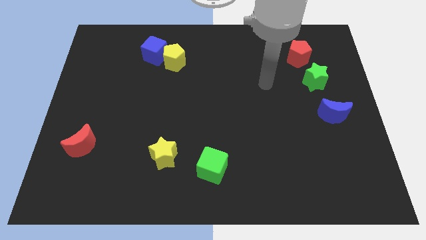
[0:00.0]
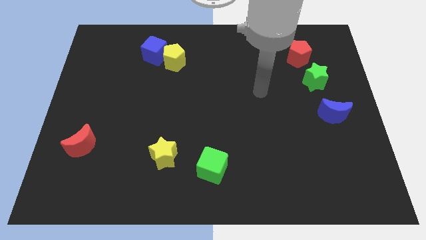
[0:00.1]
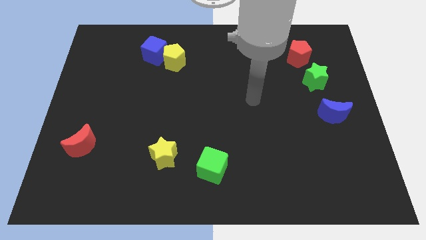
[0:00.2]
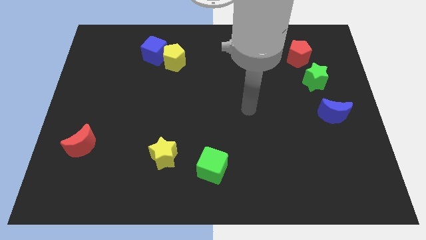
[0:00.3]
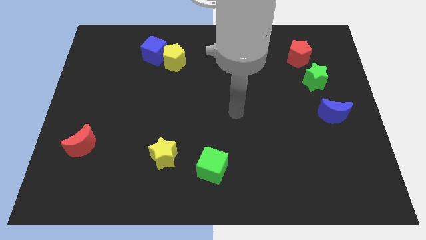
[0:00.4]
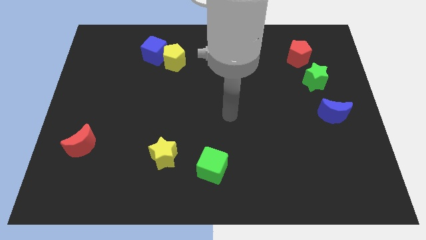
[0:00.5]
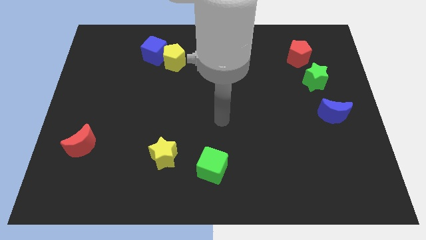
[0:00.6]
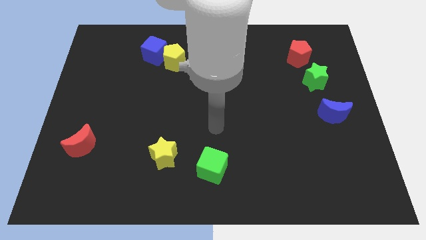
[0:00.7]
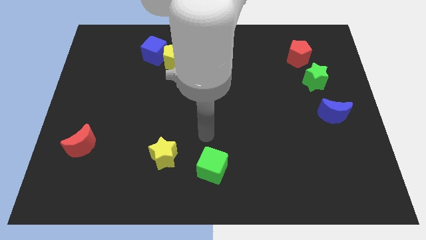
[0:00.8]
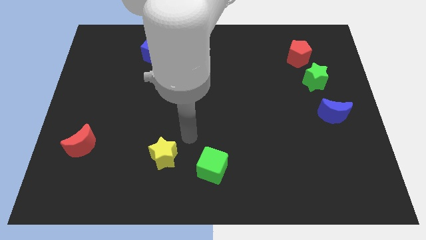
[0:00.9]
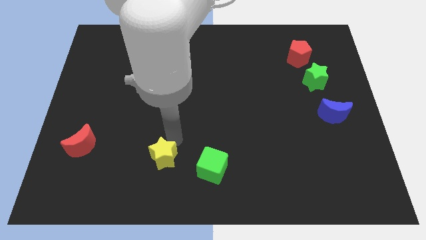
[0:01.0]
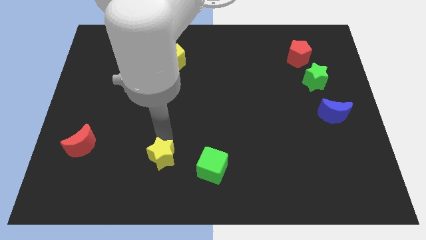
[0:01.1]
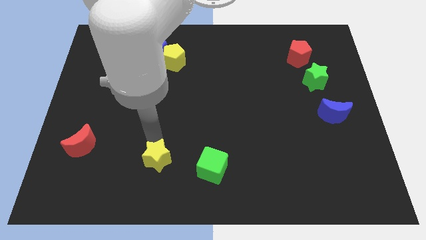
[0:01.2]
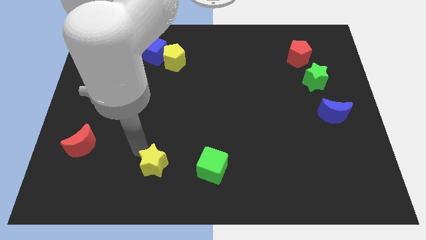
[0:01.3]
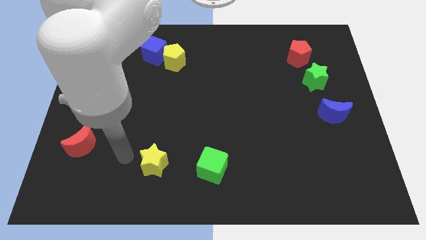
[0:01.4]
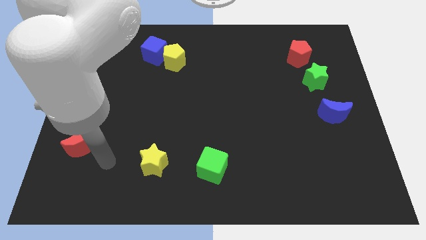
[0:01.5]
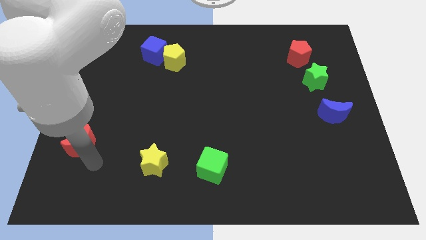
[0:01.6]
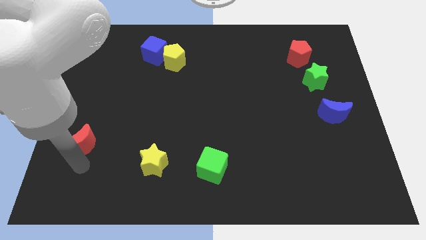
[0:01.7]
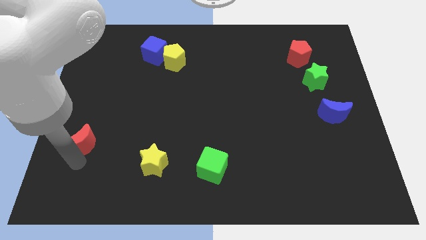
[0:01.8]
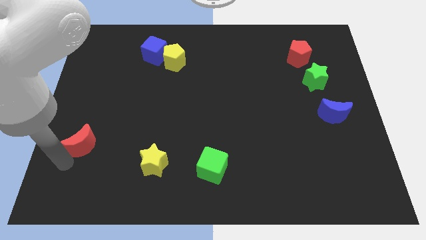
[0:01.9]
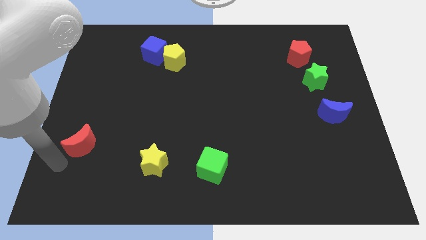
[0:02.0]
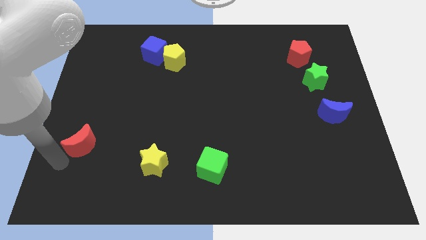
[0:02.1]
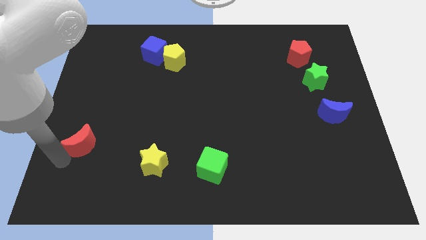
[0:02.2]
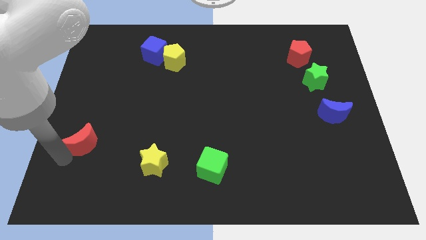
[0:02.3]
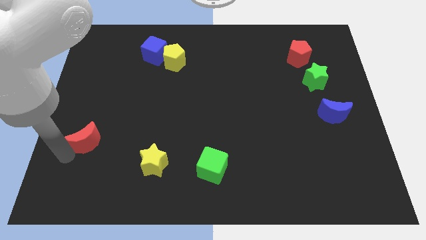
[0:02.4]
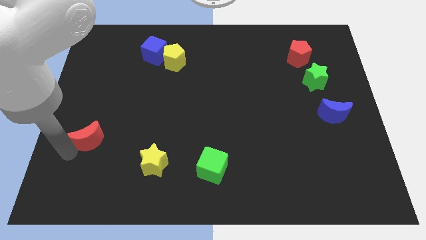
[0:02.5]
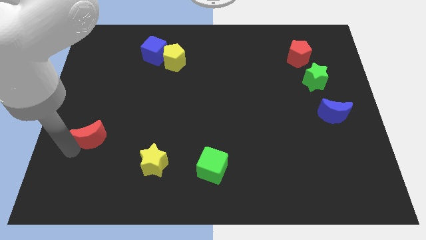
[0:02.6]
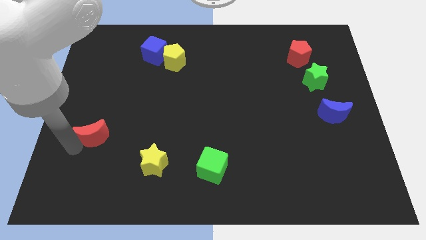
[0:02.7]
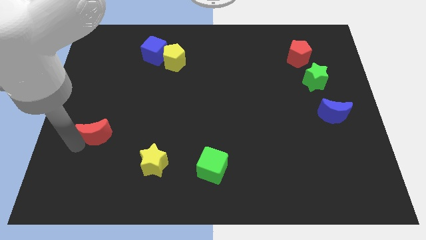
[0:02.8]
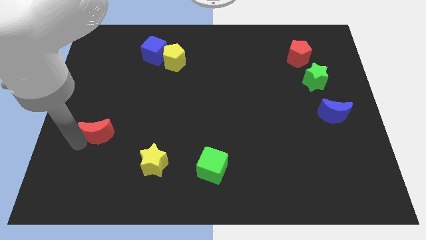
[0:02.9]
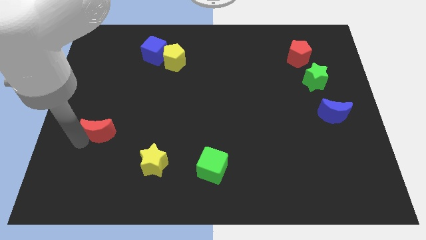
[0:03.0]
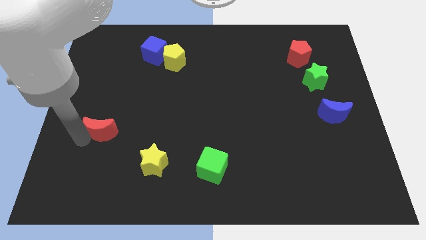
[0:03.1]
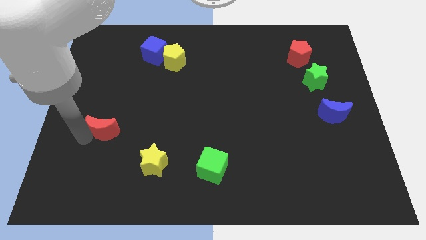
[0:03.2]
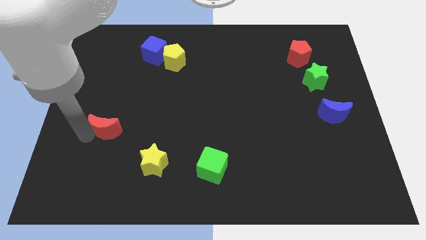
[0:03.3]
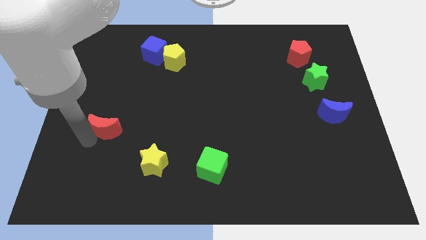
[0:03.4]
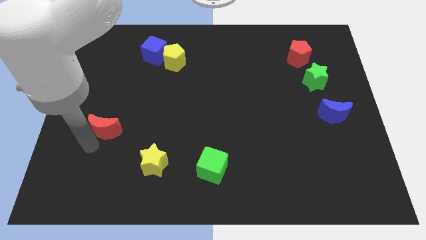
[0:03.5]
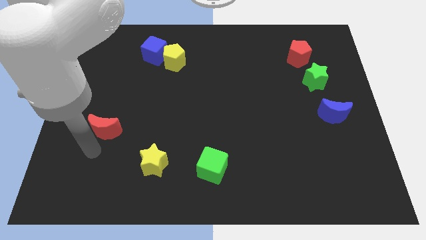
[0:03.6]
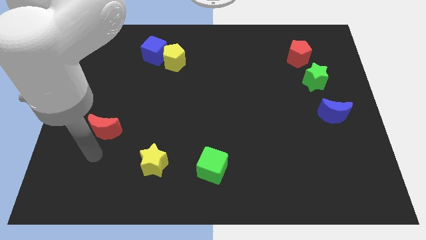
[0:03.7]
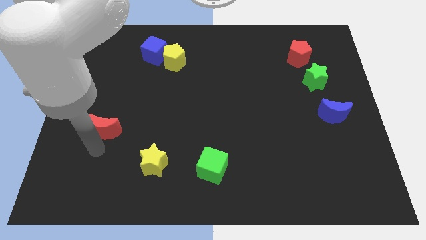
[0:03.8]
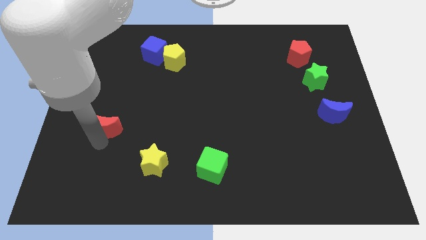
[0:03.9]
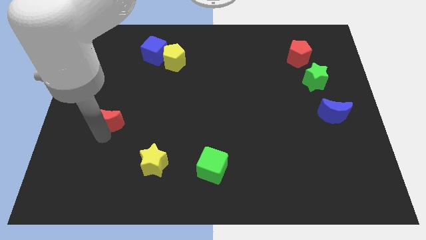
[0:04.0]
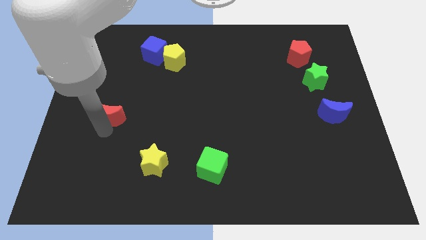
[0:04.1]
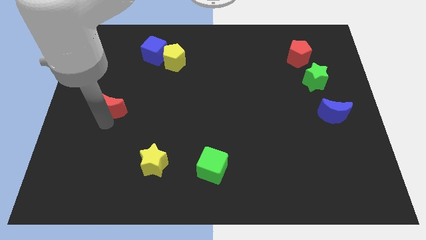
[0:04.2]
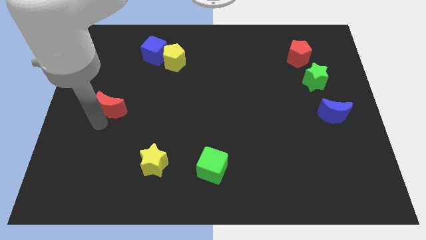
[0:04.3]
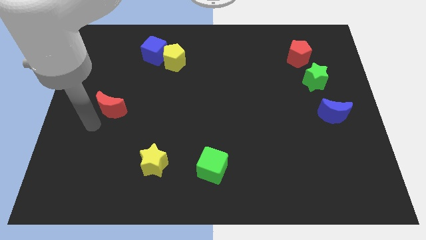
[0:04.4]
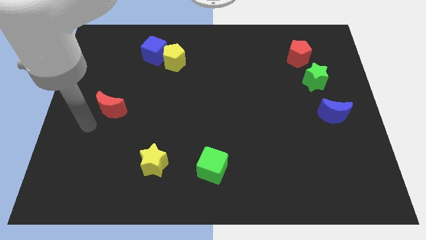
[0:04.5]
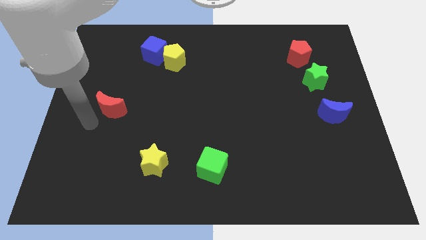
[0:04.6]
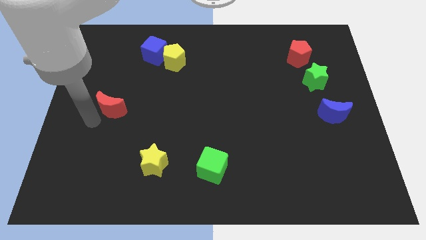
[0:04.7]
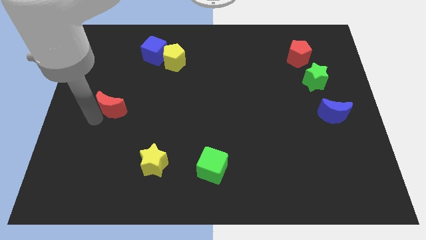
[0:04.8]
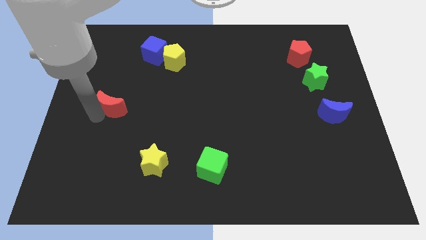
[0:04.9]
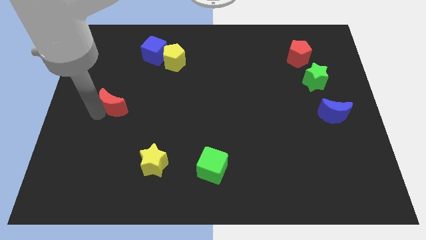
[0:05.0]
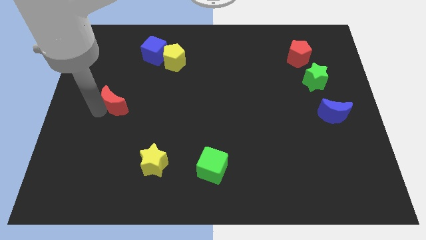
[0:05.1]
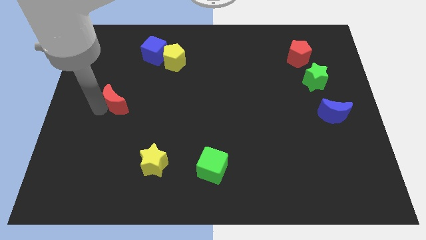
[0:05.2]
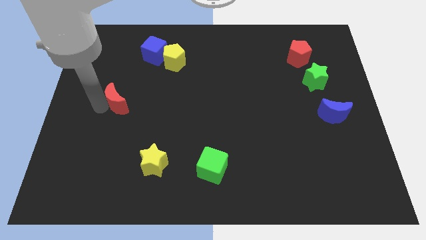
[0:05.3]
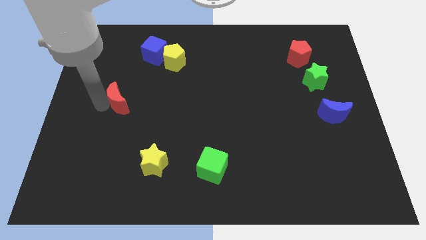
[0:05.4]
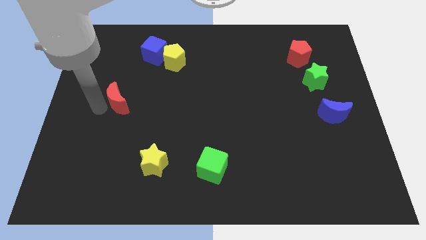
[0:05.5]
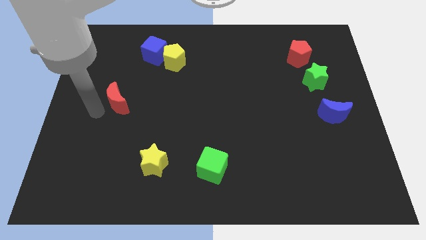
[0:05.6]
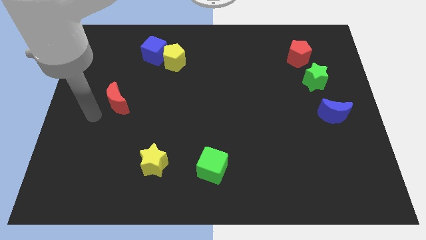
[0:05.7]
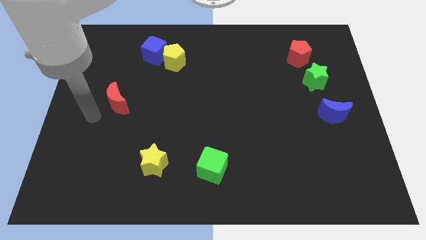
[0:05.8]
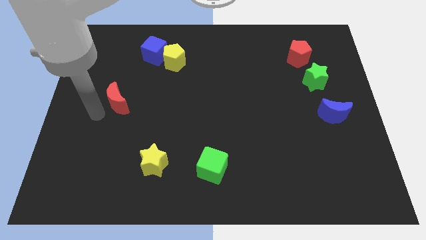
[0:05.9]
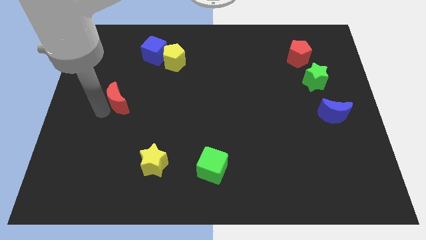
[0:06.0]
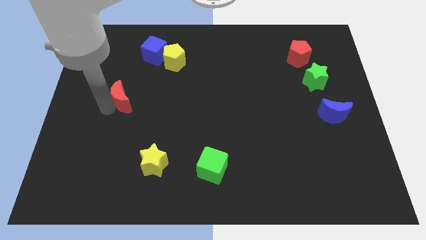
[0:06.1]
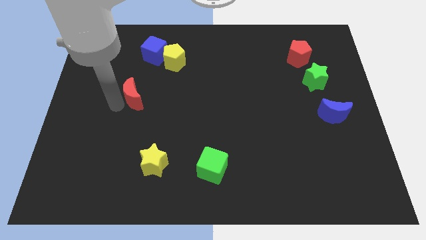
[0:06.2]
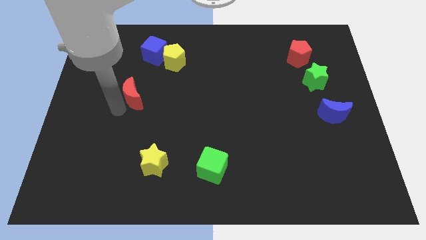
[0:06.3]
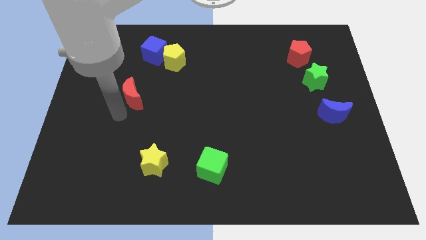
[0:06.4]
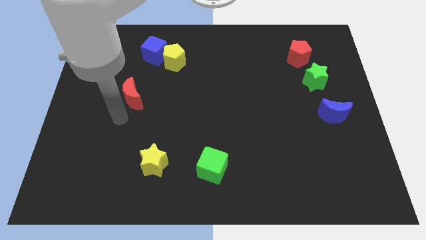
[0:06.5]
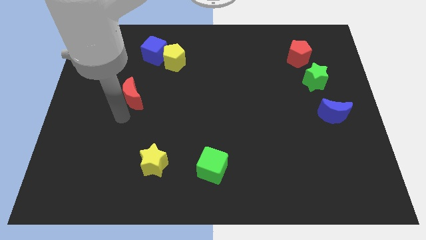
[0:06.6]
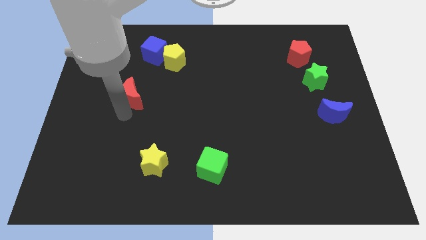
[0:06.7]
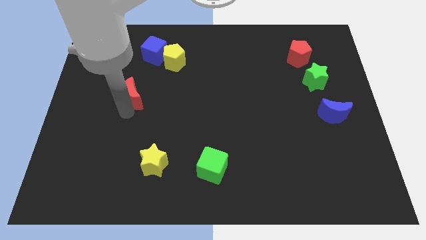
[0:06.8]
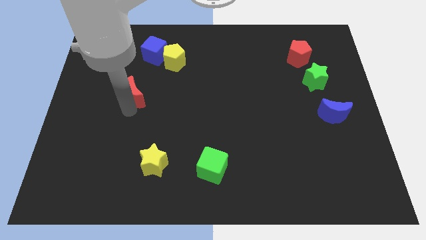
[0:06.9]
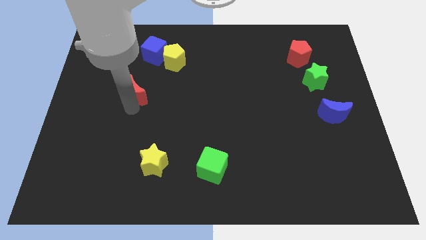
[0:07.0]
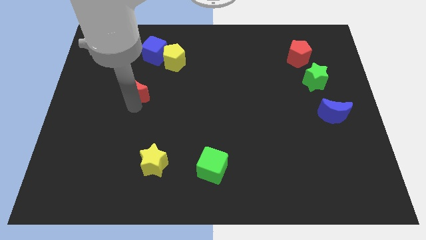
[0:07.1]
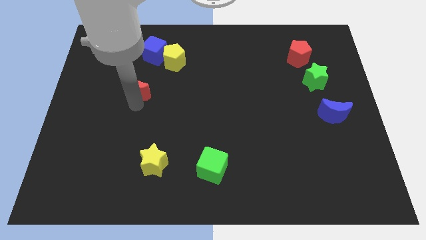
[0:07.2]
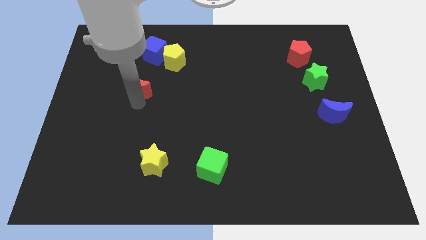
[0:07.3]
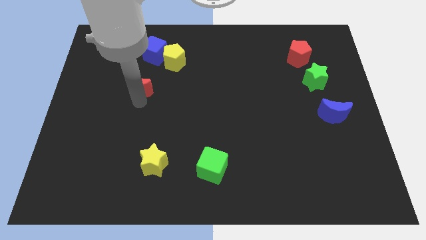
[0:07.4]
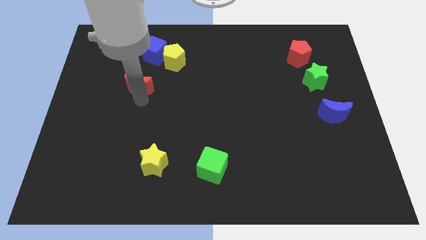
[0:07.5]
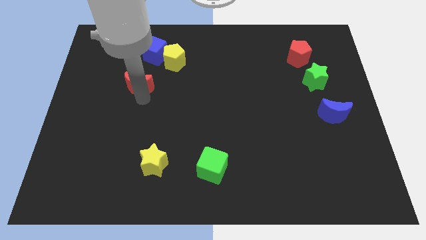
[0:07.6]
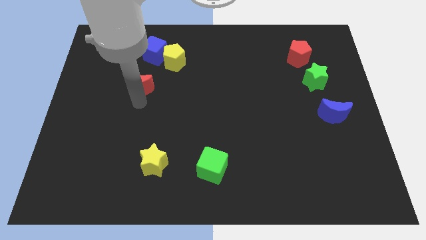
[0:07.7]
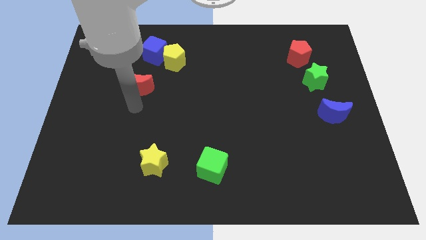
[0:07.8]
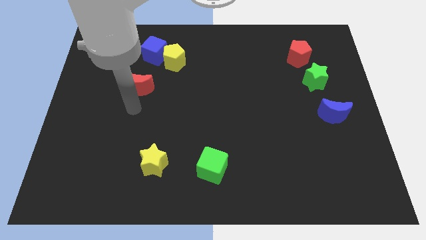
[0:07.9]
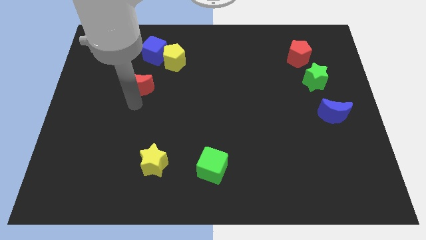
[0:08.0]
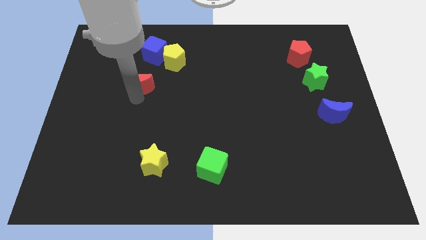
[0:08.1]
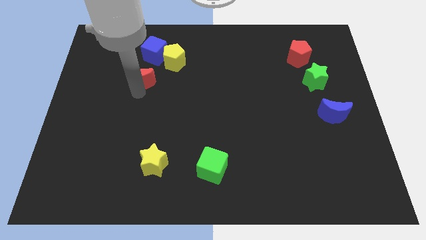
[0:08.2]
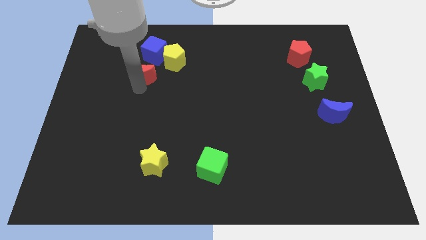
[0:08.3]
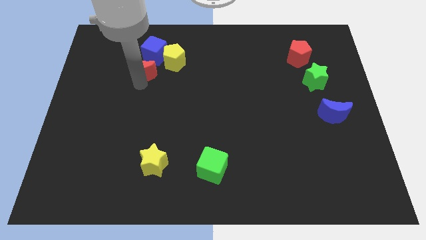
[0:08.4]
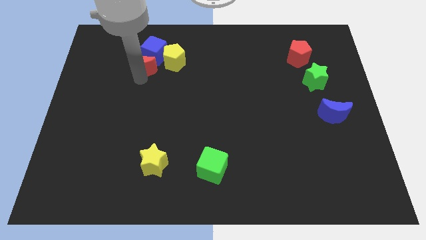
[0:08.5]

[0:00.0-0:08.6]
slide the red moon next to the blue cube
